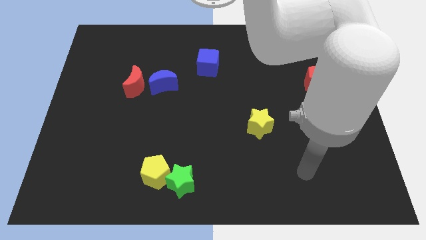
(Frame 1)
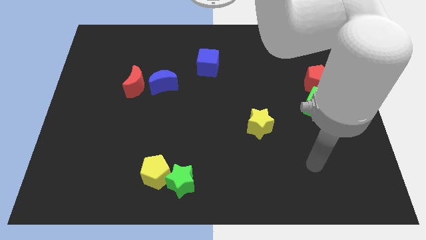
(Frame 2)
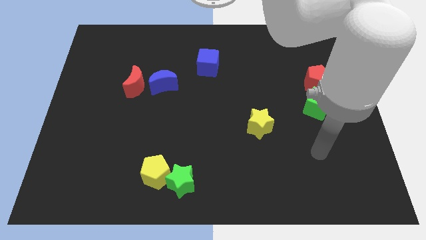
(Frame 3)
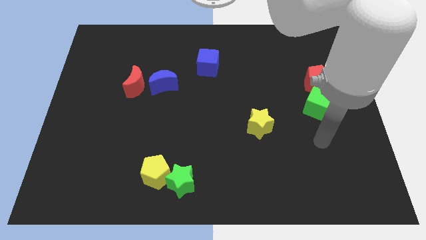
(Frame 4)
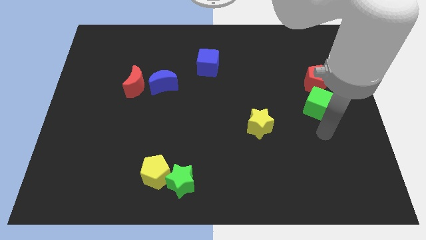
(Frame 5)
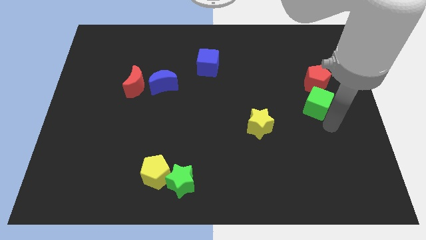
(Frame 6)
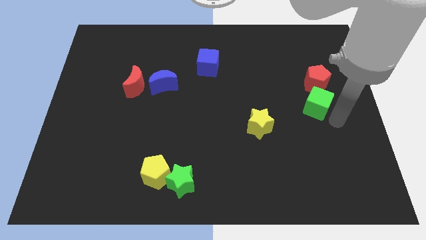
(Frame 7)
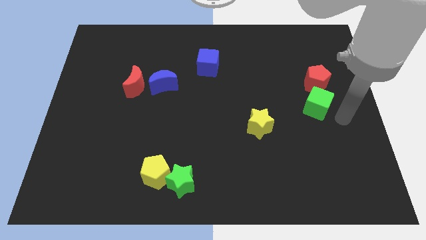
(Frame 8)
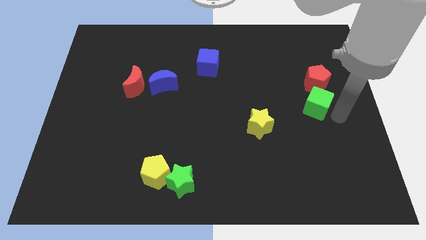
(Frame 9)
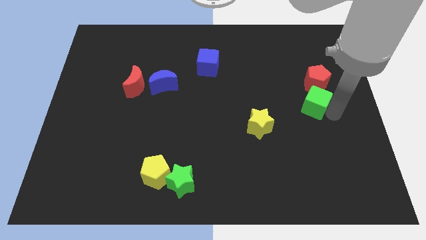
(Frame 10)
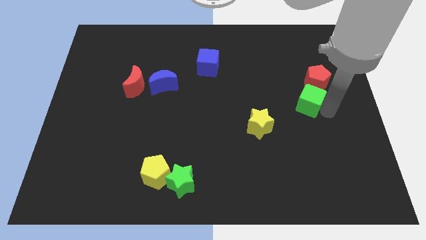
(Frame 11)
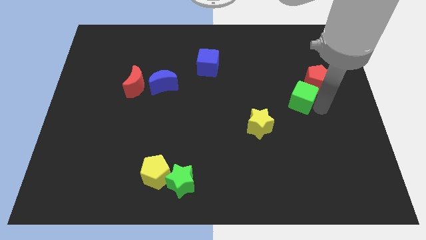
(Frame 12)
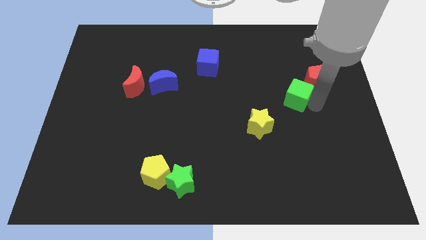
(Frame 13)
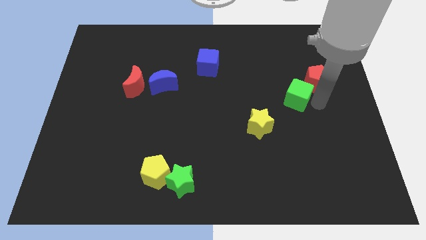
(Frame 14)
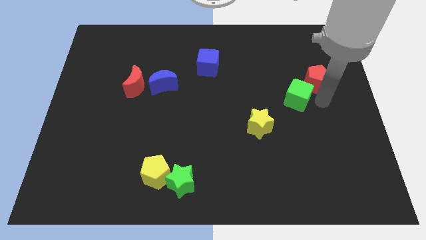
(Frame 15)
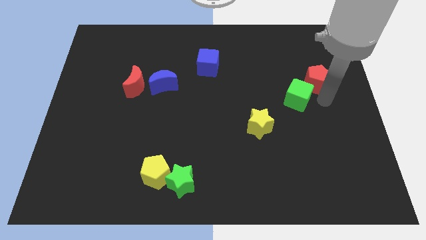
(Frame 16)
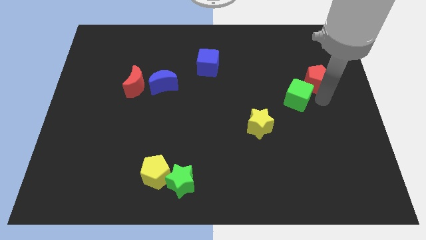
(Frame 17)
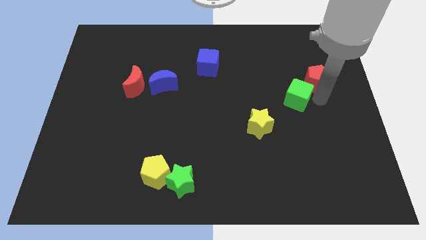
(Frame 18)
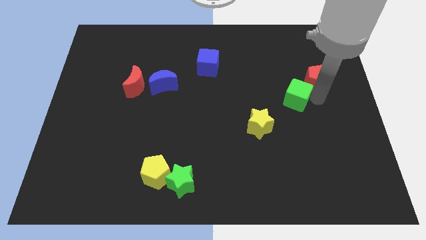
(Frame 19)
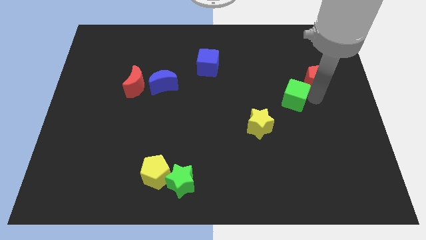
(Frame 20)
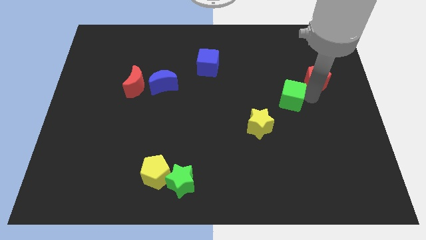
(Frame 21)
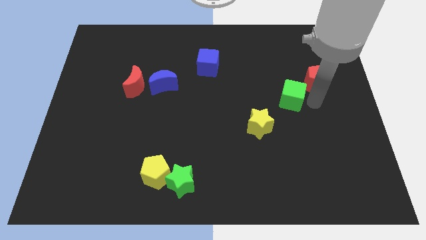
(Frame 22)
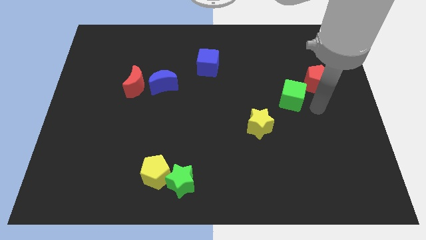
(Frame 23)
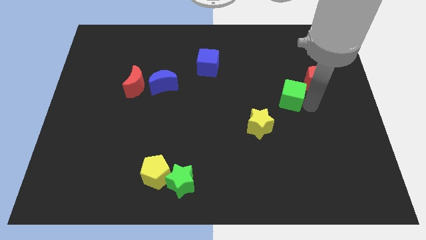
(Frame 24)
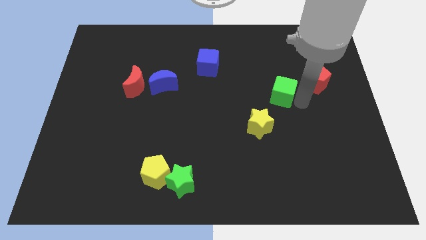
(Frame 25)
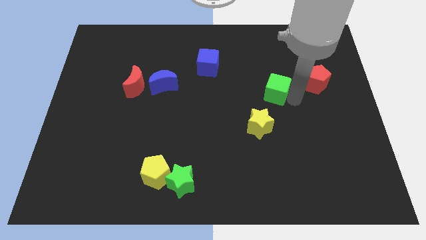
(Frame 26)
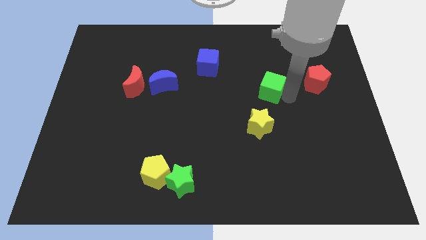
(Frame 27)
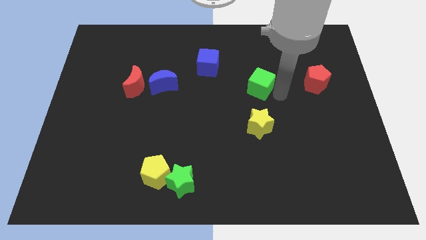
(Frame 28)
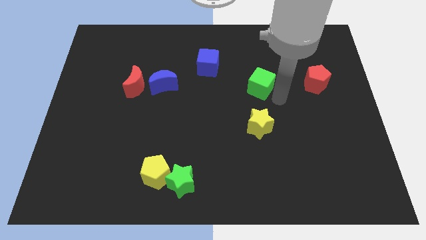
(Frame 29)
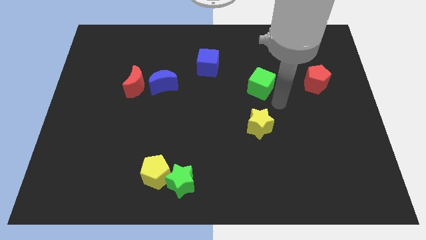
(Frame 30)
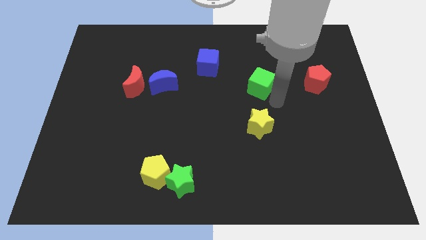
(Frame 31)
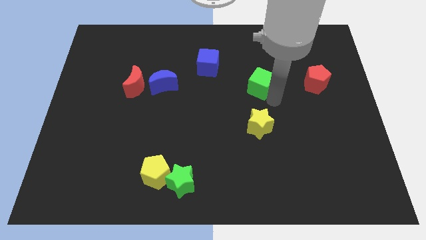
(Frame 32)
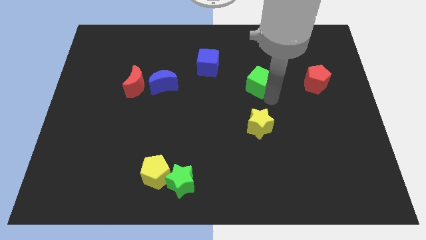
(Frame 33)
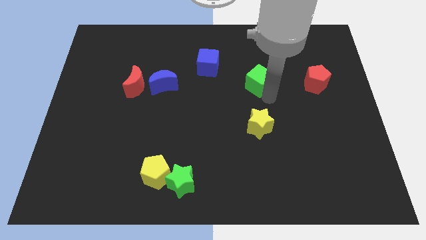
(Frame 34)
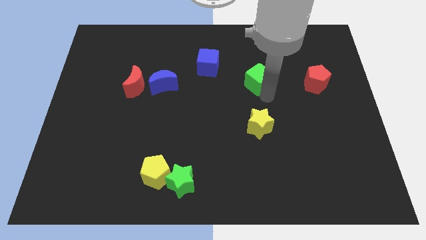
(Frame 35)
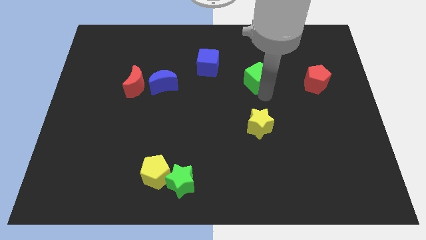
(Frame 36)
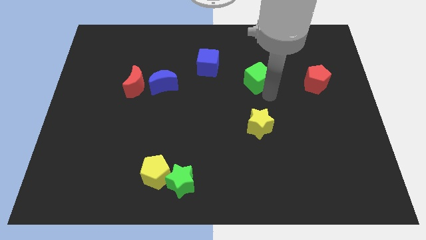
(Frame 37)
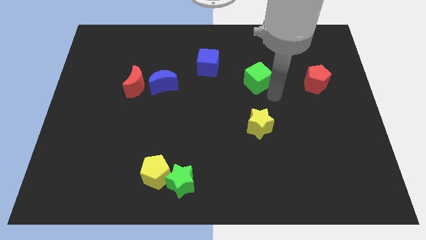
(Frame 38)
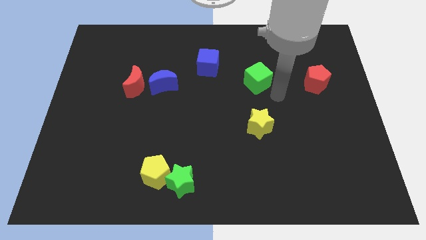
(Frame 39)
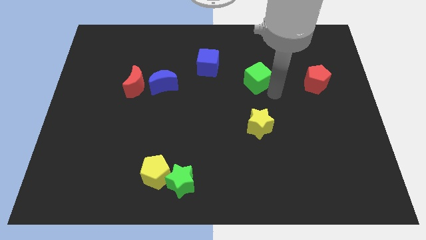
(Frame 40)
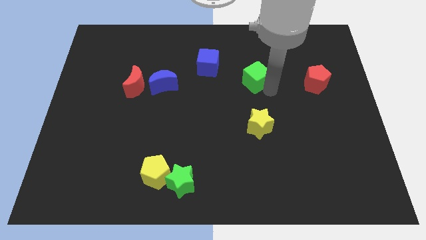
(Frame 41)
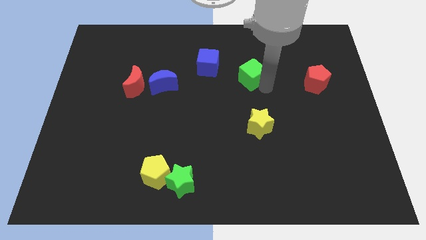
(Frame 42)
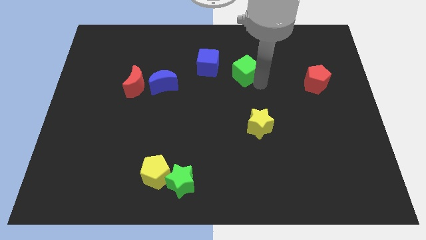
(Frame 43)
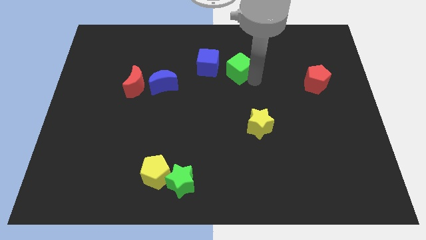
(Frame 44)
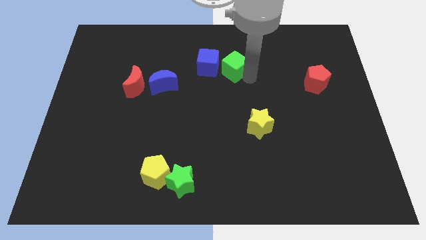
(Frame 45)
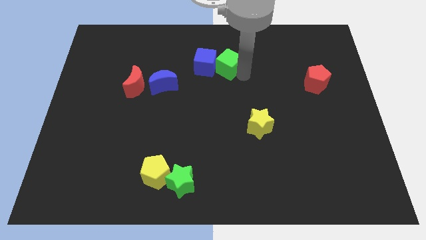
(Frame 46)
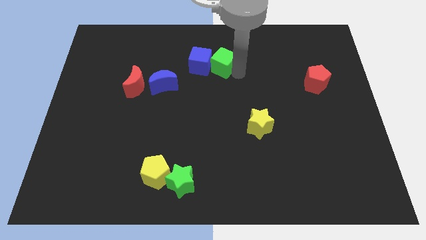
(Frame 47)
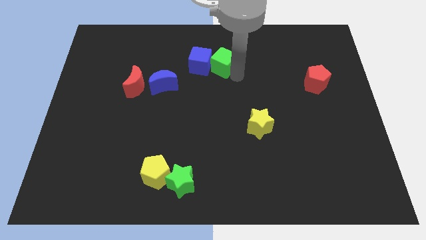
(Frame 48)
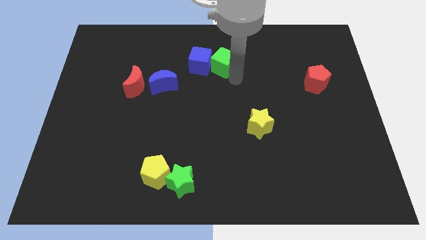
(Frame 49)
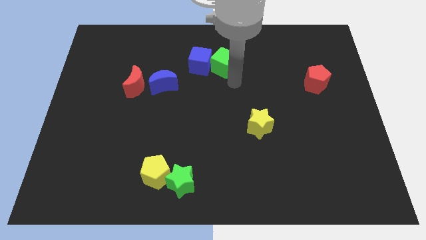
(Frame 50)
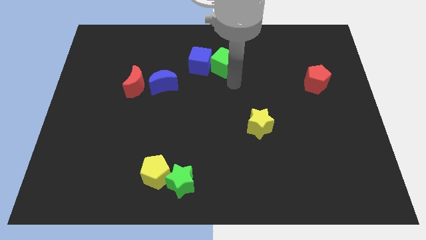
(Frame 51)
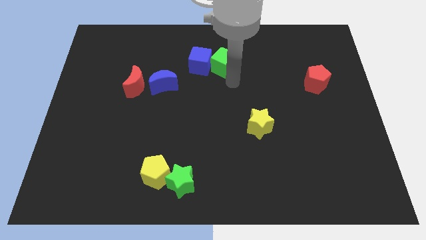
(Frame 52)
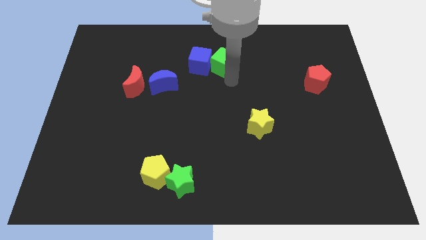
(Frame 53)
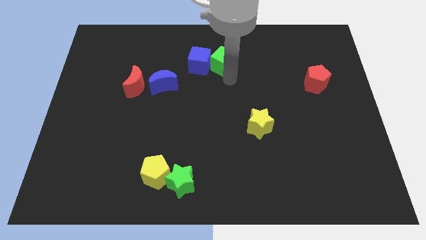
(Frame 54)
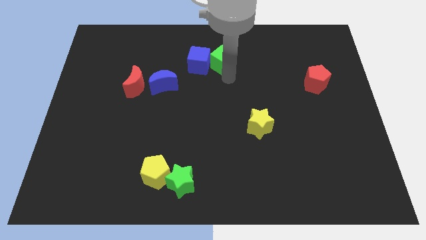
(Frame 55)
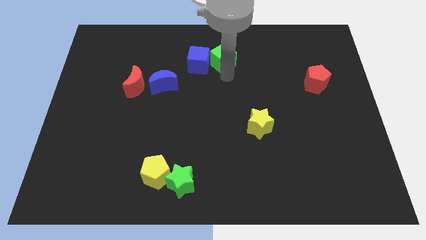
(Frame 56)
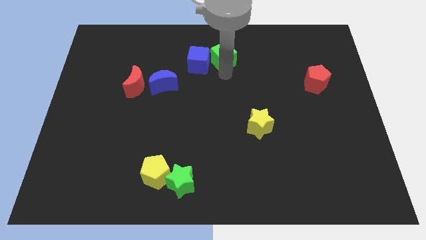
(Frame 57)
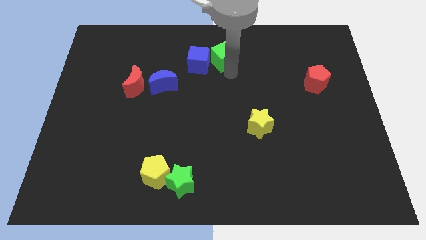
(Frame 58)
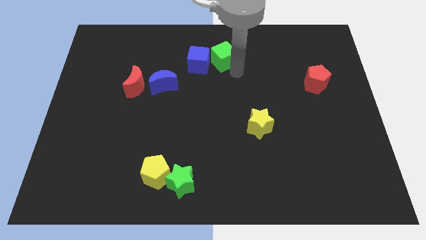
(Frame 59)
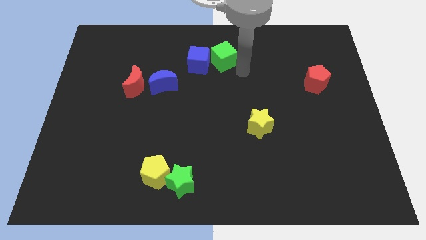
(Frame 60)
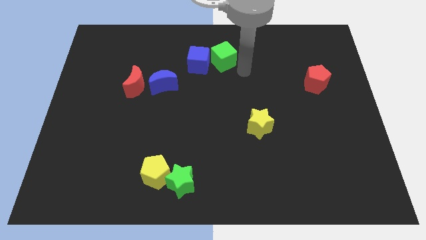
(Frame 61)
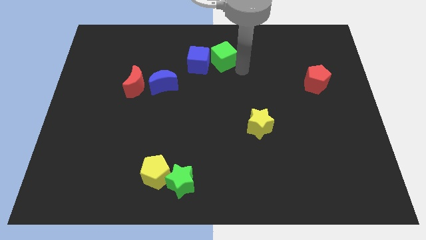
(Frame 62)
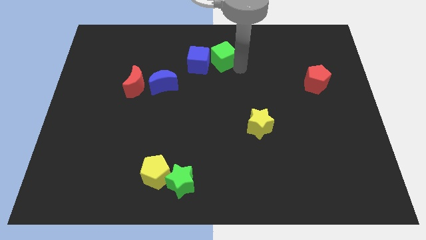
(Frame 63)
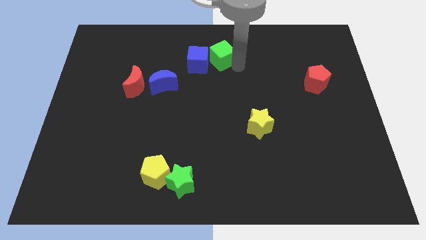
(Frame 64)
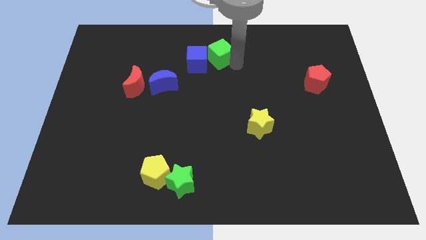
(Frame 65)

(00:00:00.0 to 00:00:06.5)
slide the green cube to the top side
